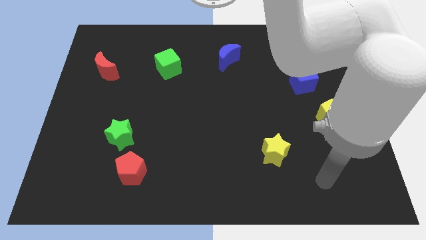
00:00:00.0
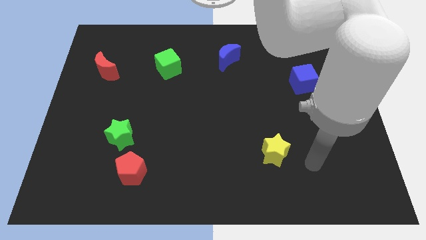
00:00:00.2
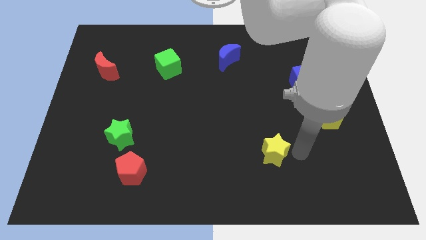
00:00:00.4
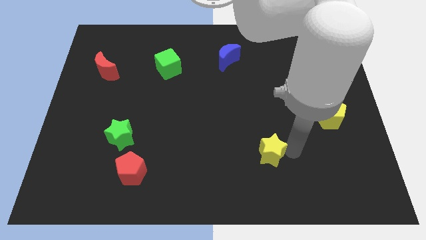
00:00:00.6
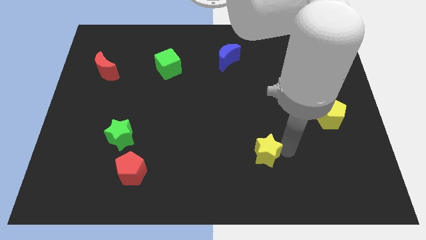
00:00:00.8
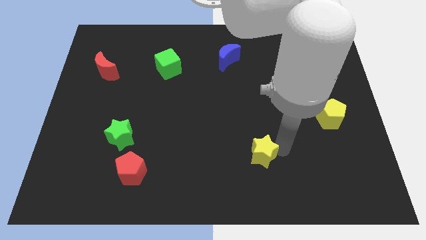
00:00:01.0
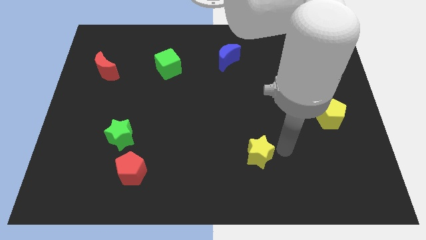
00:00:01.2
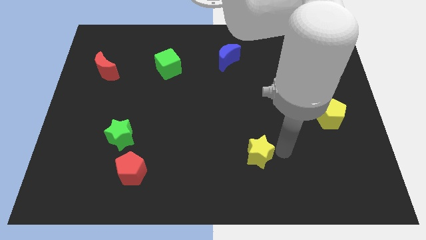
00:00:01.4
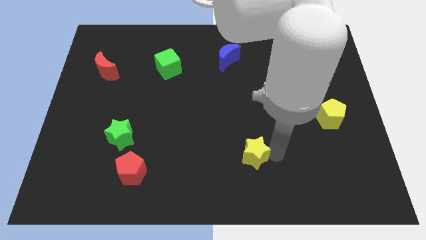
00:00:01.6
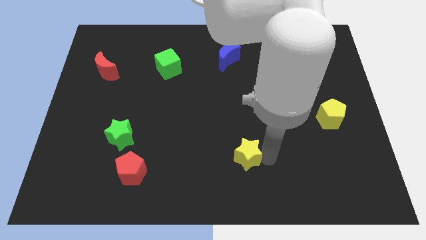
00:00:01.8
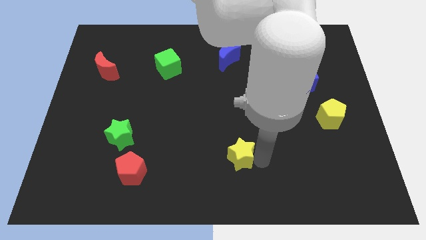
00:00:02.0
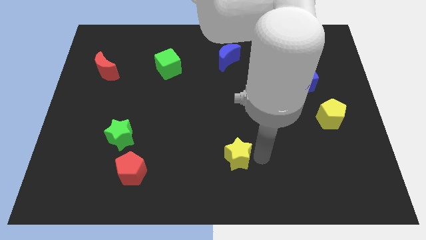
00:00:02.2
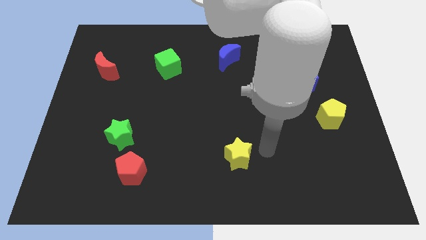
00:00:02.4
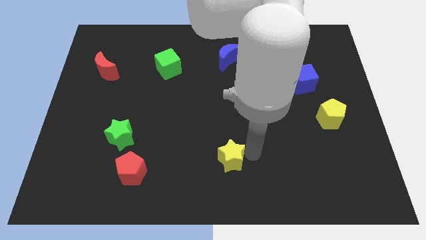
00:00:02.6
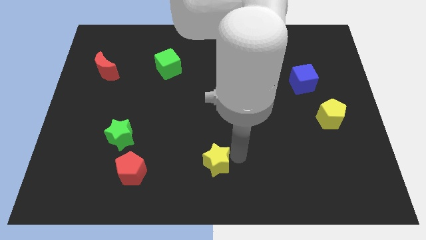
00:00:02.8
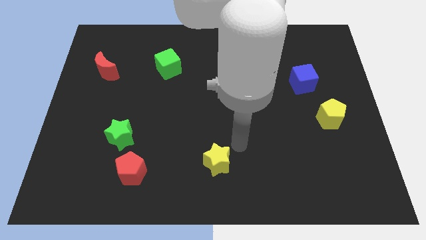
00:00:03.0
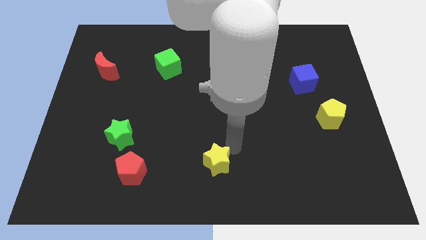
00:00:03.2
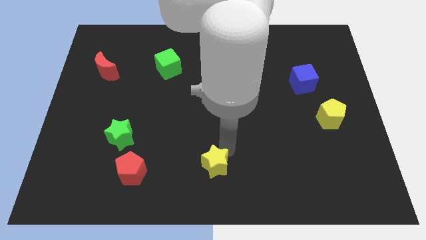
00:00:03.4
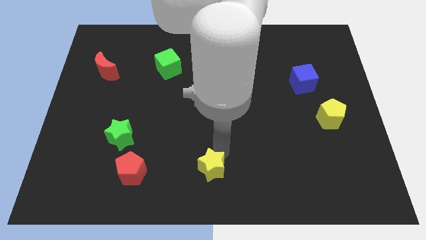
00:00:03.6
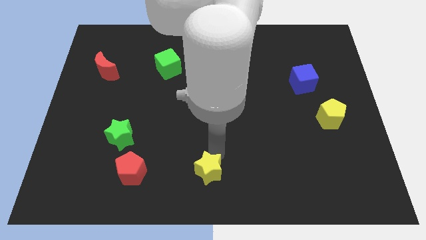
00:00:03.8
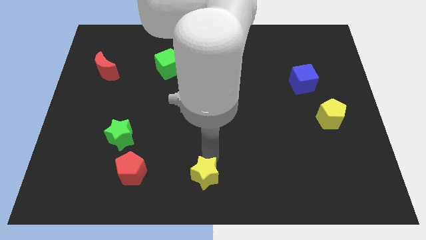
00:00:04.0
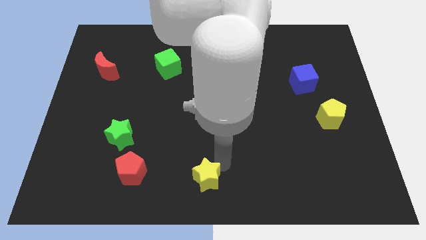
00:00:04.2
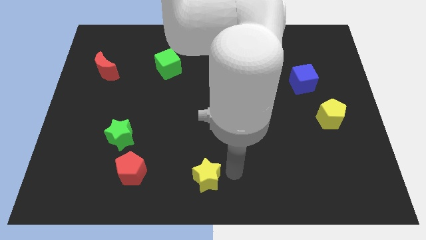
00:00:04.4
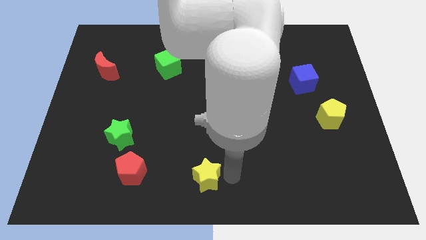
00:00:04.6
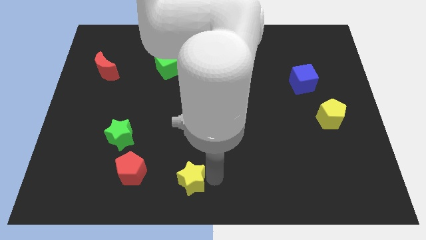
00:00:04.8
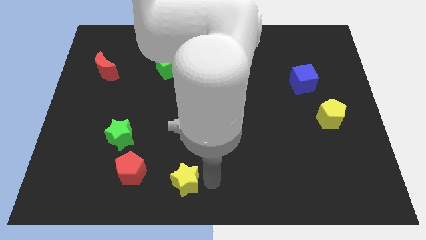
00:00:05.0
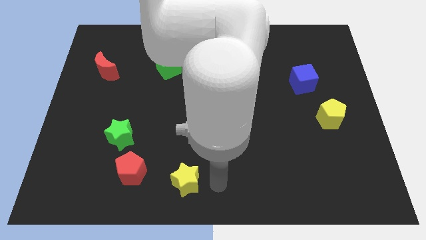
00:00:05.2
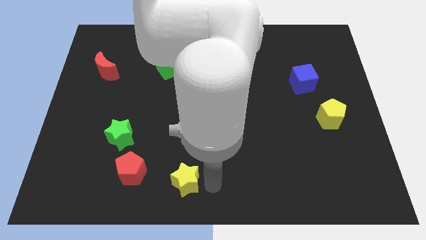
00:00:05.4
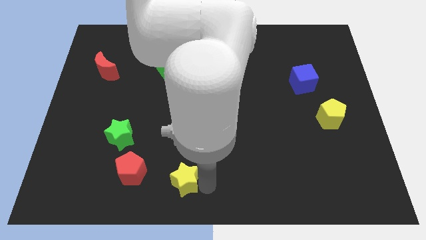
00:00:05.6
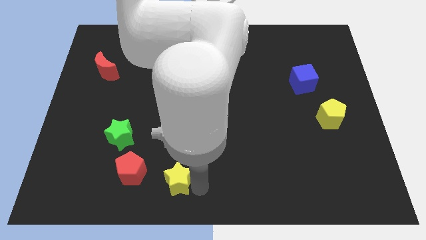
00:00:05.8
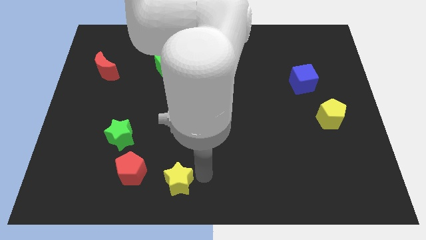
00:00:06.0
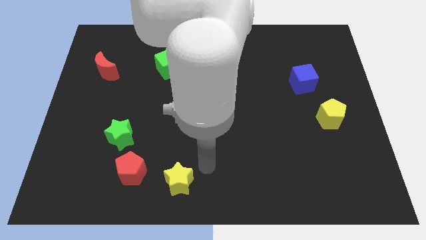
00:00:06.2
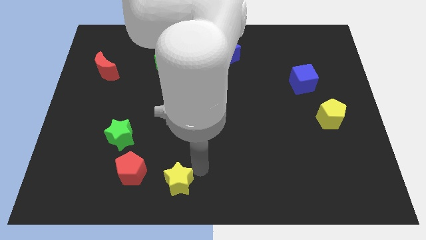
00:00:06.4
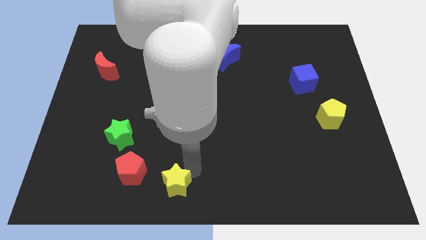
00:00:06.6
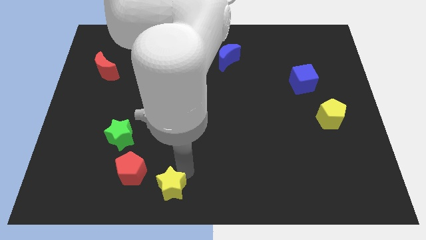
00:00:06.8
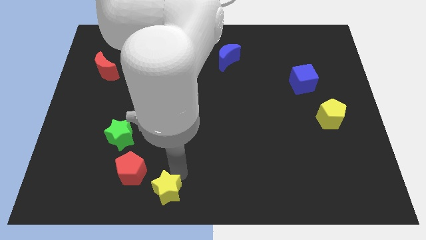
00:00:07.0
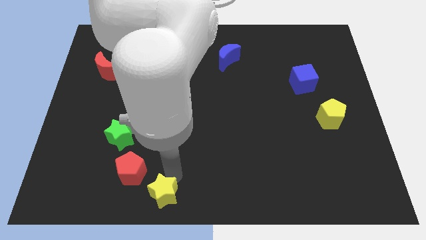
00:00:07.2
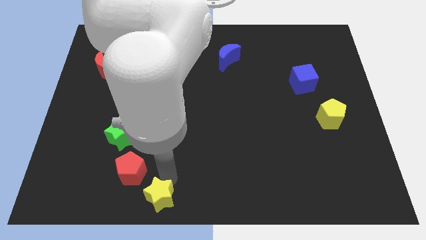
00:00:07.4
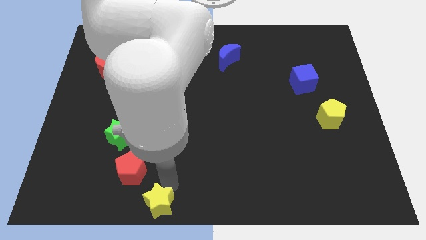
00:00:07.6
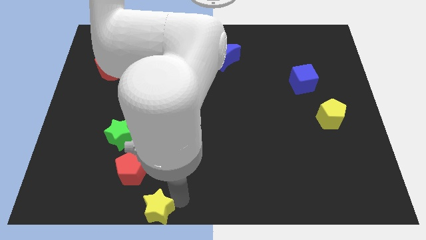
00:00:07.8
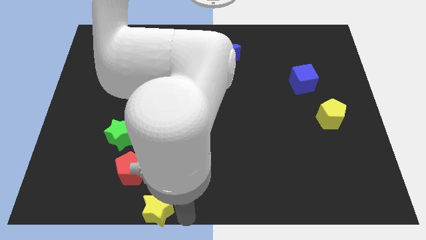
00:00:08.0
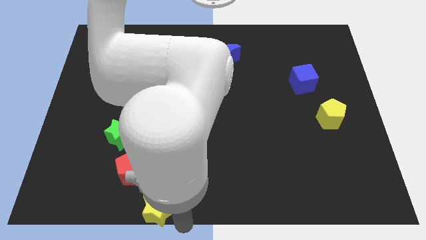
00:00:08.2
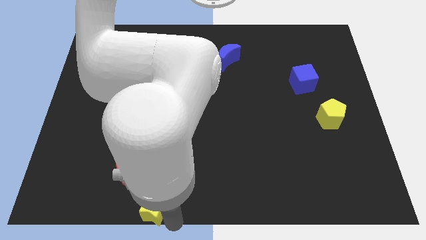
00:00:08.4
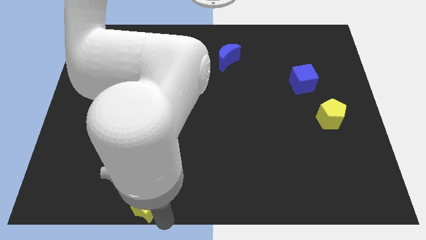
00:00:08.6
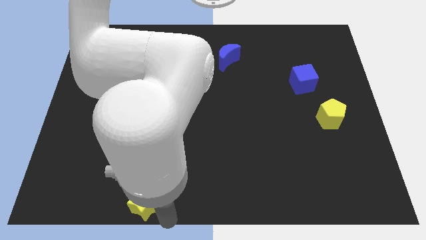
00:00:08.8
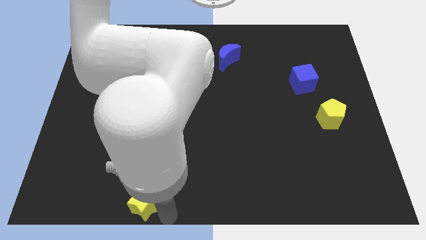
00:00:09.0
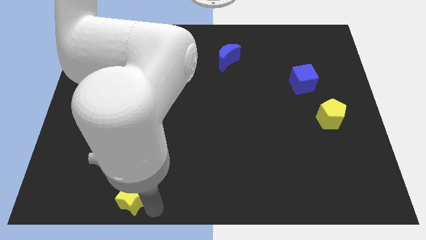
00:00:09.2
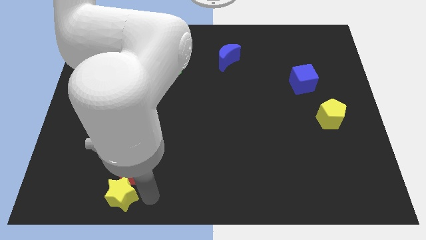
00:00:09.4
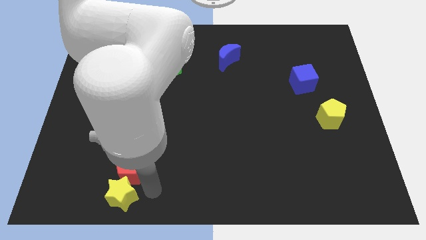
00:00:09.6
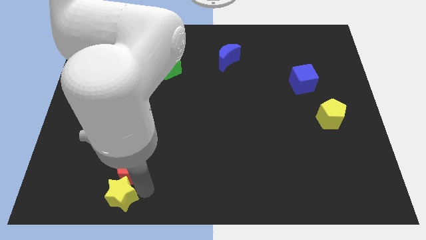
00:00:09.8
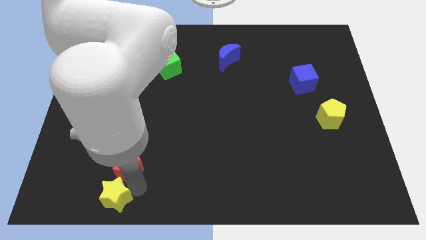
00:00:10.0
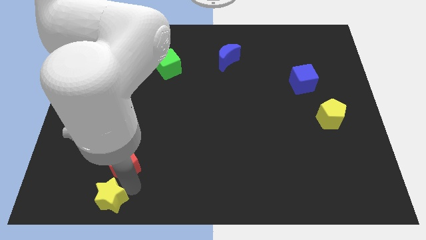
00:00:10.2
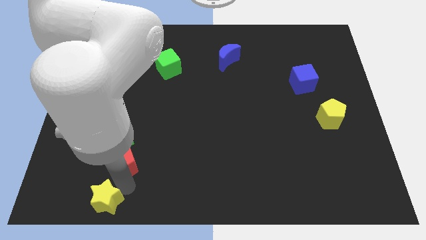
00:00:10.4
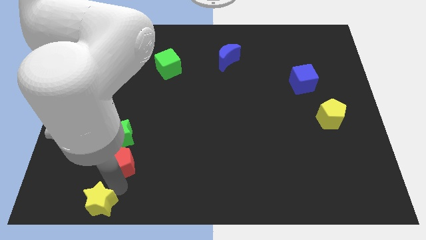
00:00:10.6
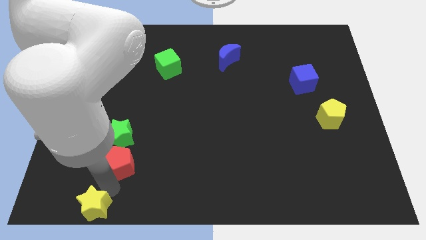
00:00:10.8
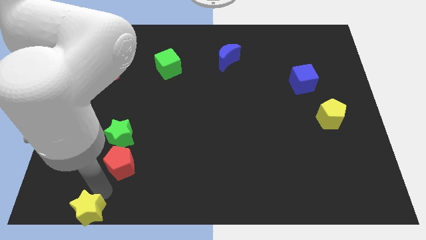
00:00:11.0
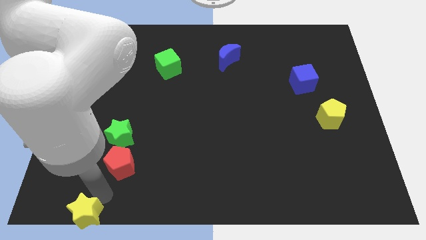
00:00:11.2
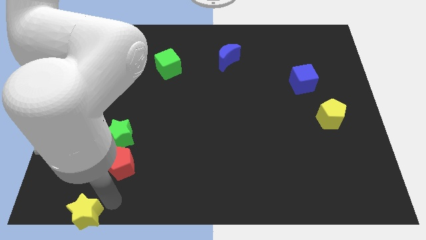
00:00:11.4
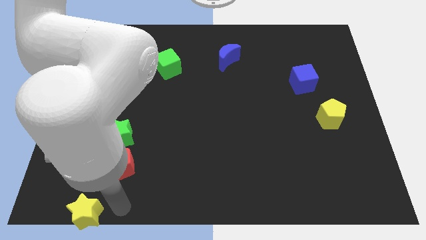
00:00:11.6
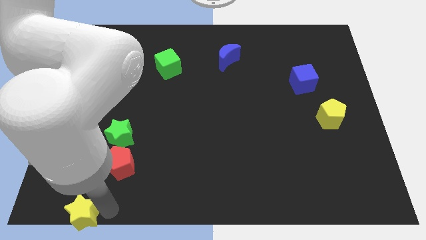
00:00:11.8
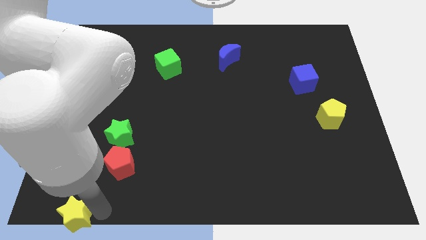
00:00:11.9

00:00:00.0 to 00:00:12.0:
move the yellow star to the bottom left corner
